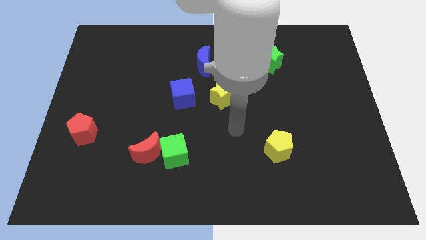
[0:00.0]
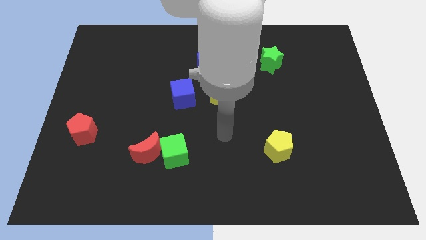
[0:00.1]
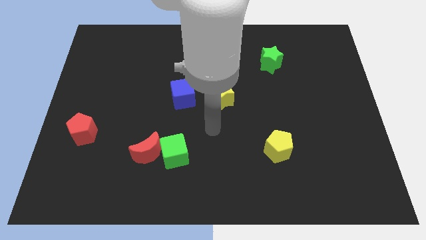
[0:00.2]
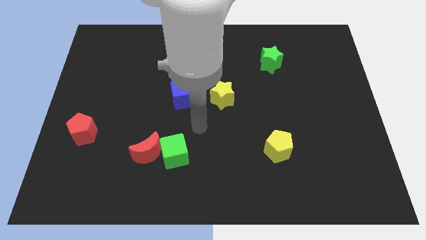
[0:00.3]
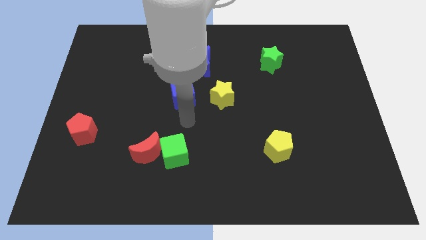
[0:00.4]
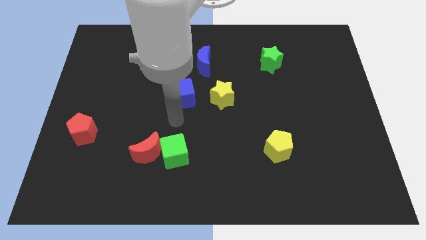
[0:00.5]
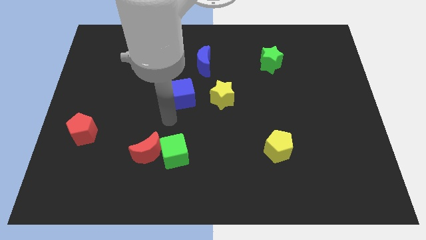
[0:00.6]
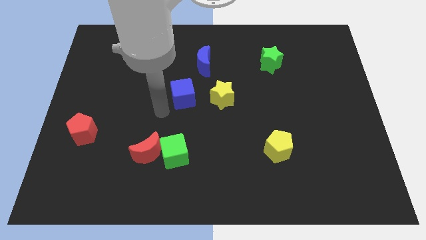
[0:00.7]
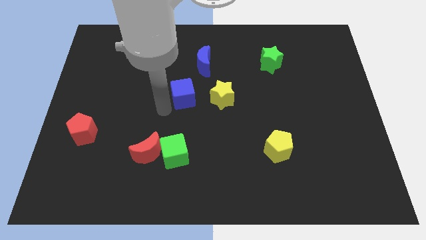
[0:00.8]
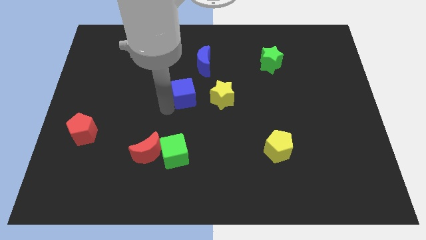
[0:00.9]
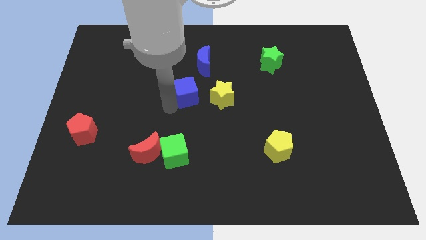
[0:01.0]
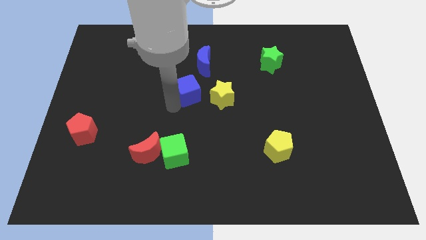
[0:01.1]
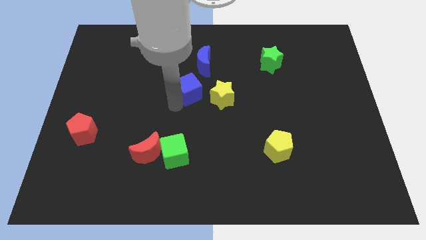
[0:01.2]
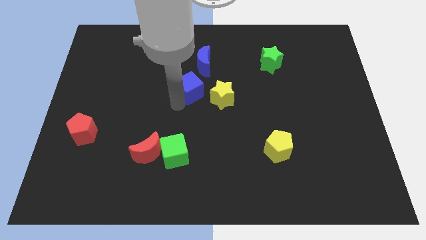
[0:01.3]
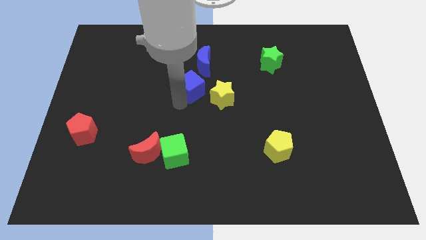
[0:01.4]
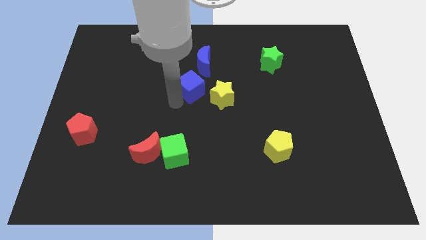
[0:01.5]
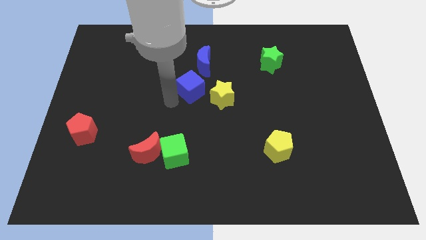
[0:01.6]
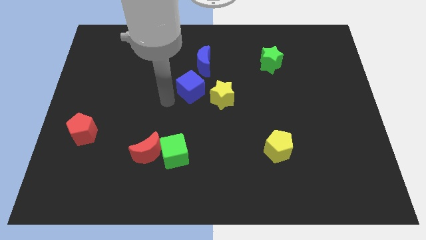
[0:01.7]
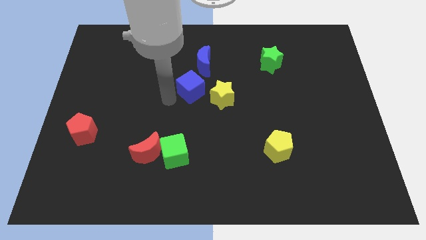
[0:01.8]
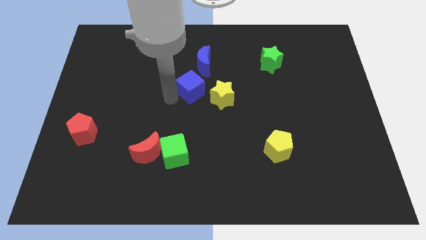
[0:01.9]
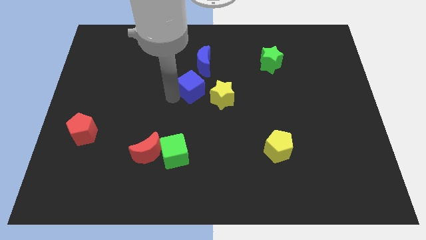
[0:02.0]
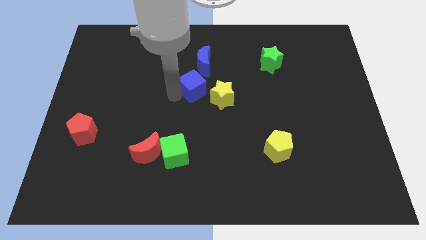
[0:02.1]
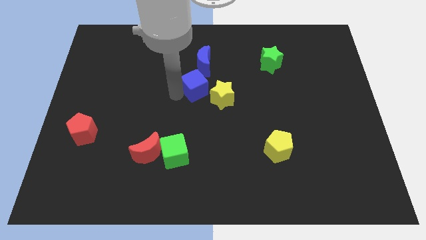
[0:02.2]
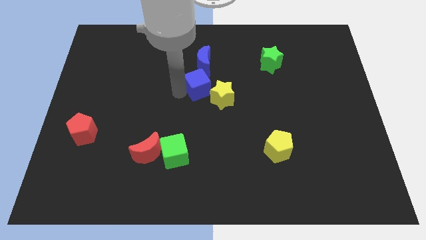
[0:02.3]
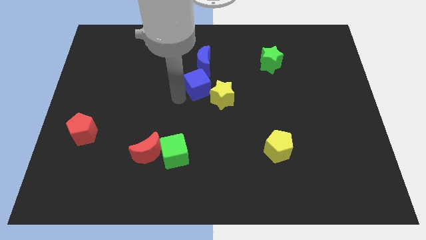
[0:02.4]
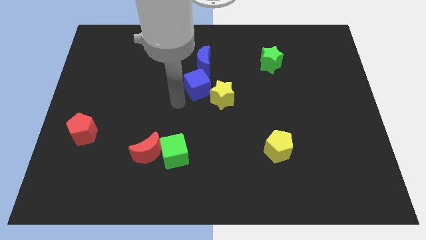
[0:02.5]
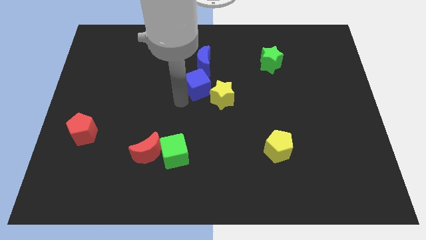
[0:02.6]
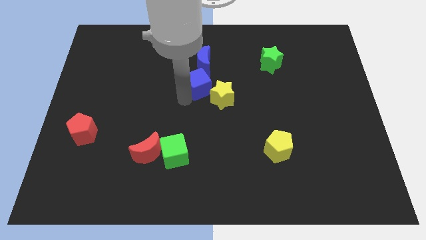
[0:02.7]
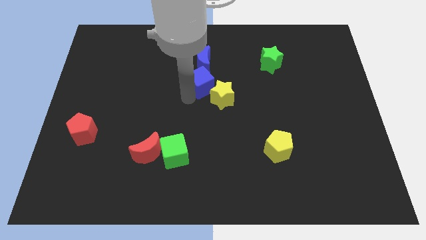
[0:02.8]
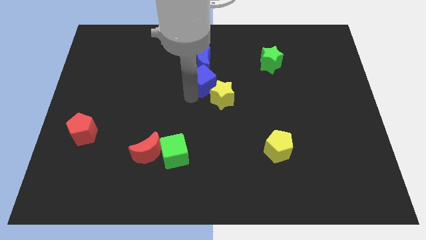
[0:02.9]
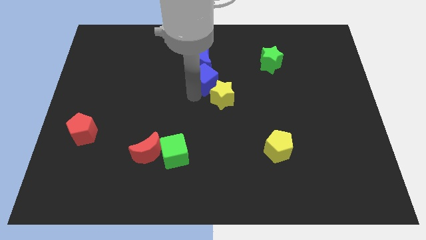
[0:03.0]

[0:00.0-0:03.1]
slide the blue cube a bit diagonally up and to the right

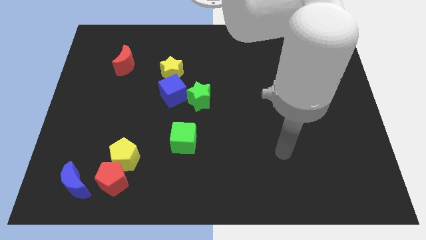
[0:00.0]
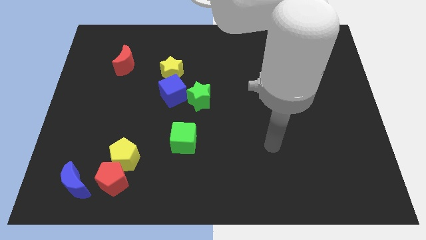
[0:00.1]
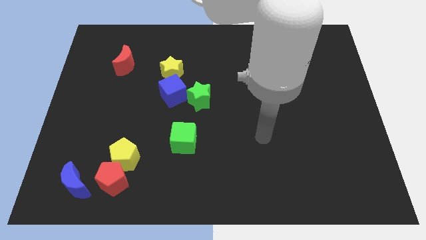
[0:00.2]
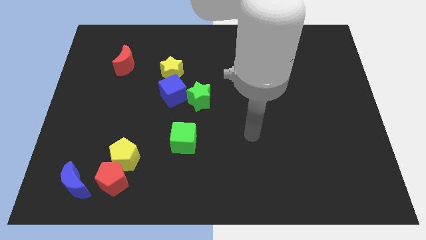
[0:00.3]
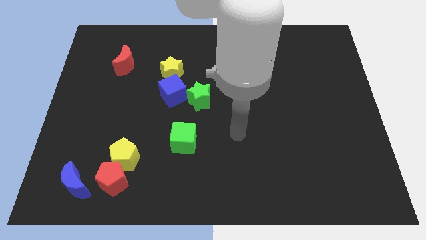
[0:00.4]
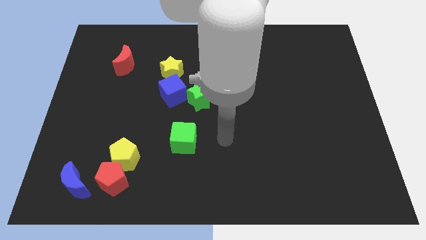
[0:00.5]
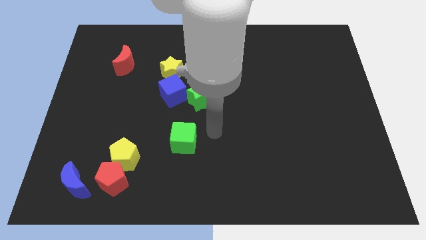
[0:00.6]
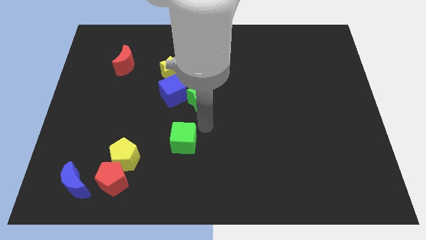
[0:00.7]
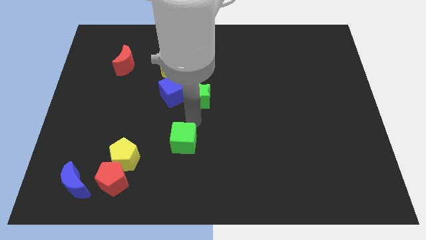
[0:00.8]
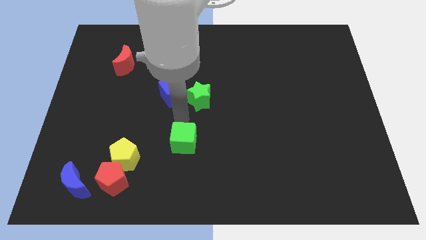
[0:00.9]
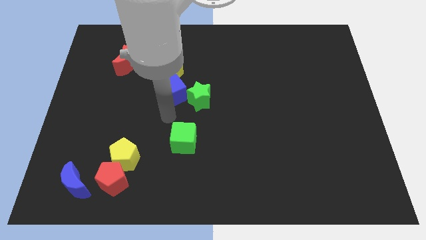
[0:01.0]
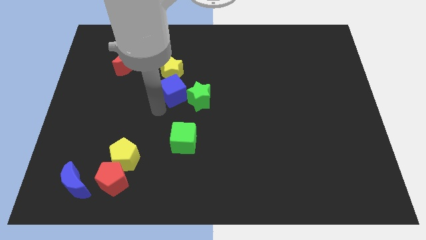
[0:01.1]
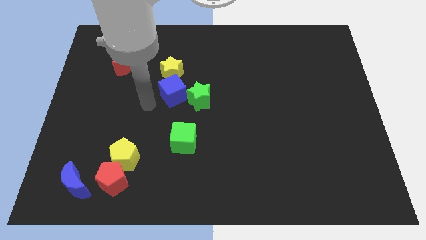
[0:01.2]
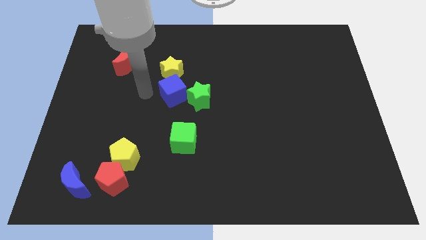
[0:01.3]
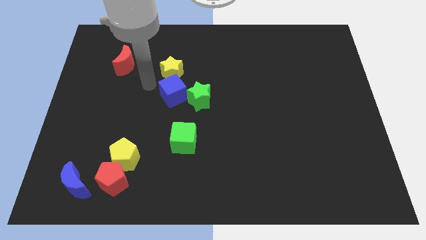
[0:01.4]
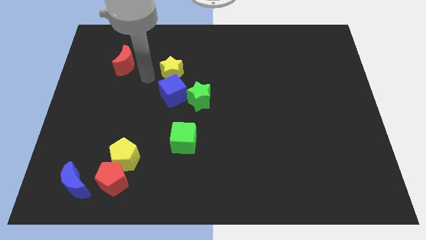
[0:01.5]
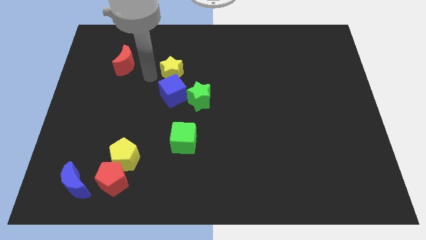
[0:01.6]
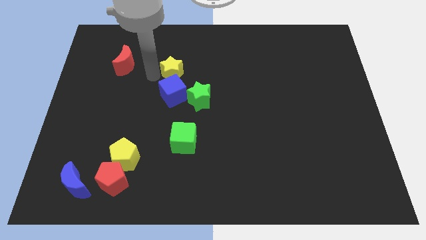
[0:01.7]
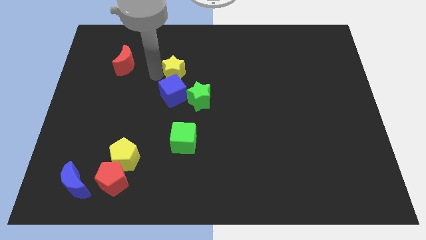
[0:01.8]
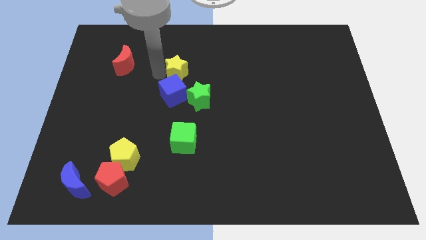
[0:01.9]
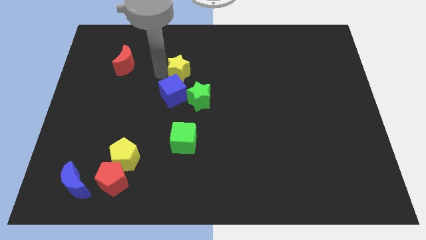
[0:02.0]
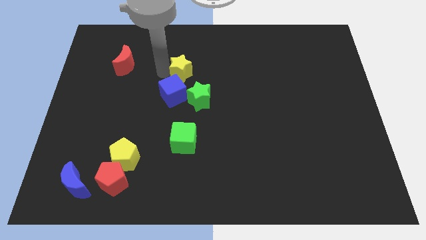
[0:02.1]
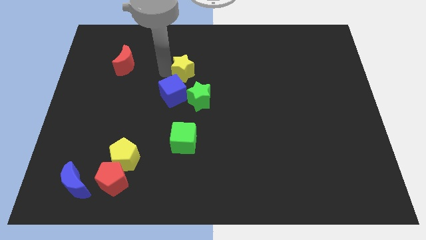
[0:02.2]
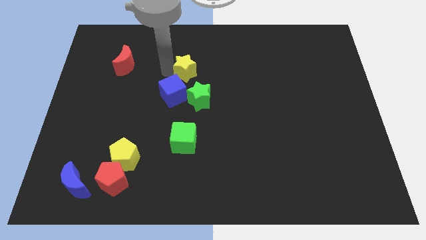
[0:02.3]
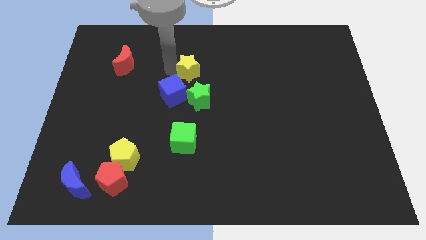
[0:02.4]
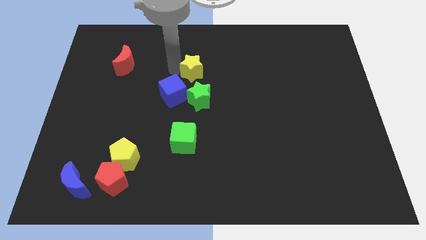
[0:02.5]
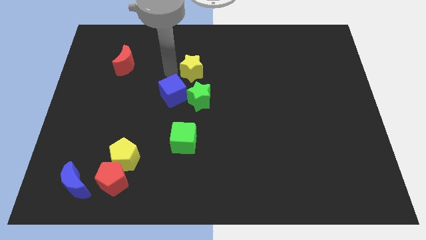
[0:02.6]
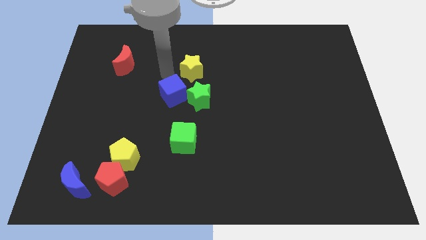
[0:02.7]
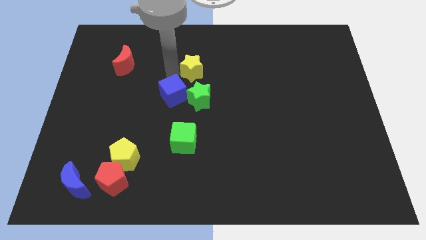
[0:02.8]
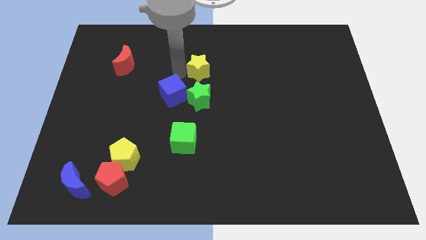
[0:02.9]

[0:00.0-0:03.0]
push the yellow star to the right a little

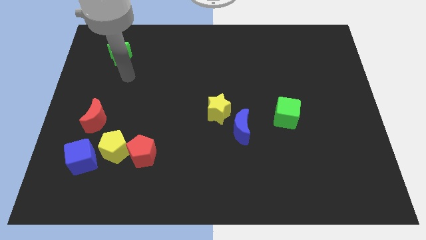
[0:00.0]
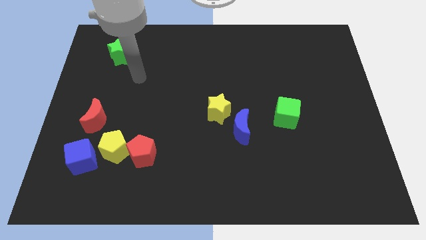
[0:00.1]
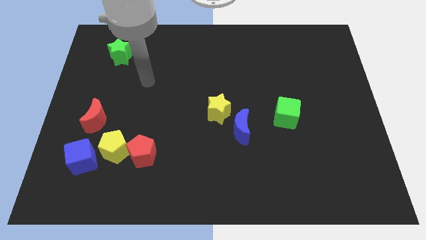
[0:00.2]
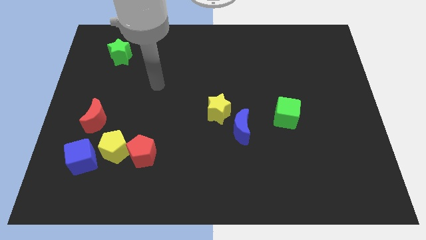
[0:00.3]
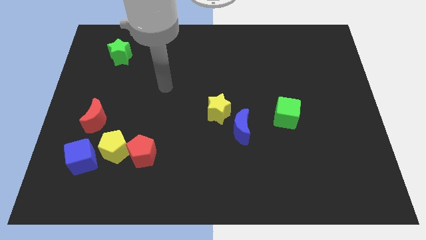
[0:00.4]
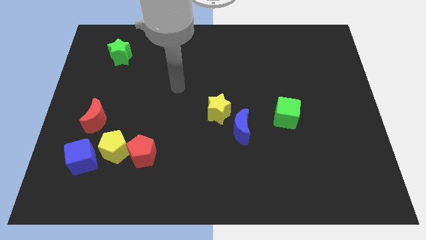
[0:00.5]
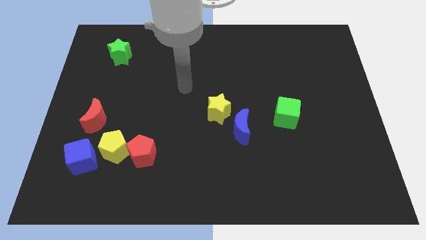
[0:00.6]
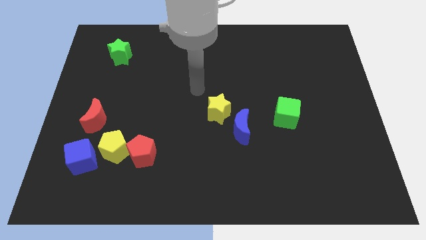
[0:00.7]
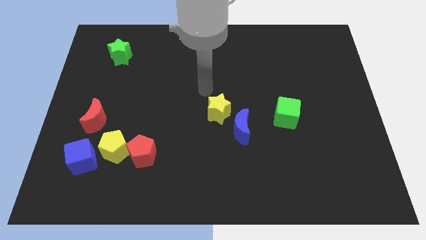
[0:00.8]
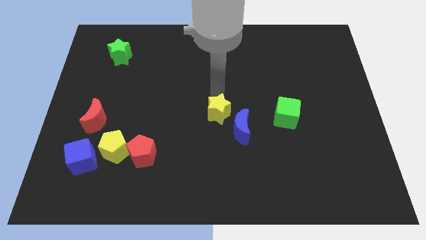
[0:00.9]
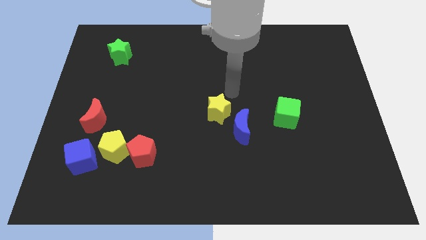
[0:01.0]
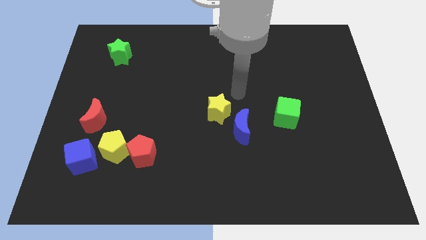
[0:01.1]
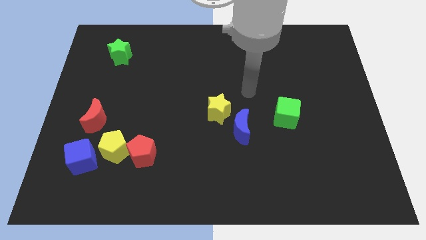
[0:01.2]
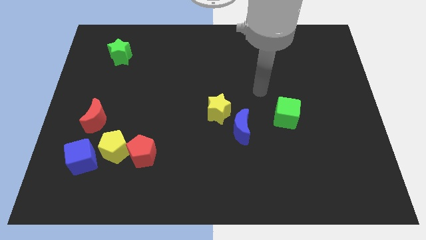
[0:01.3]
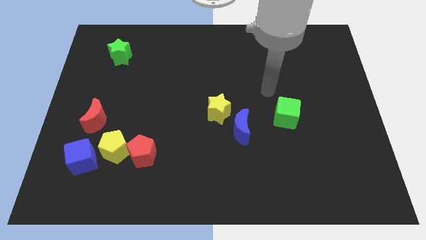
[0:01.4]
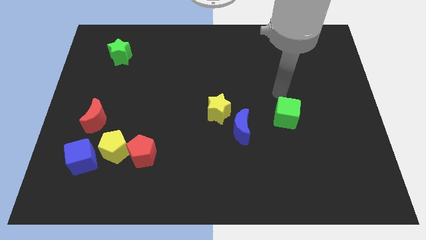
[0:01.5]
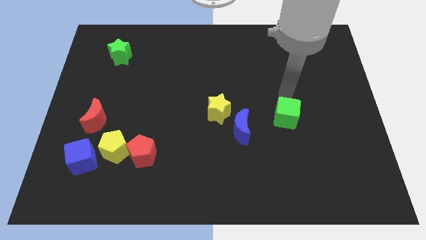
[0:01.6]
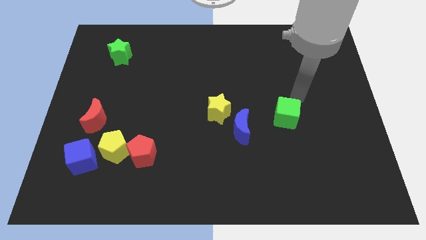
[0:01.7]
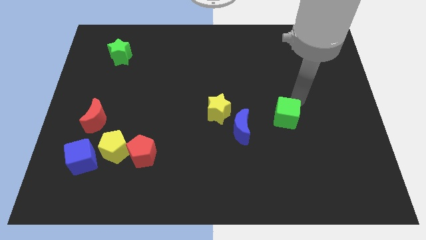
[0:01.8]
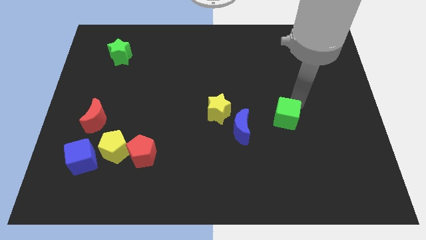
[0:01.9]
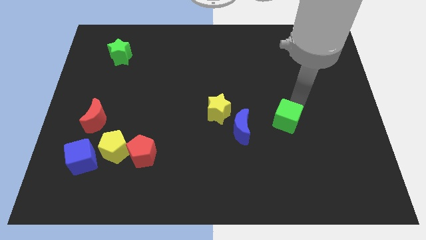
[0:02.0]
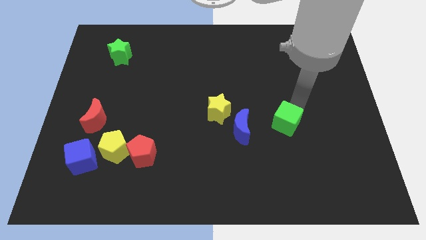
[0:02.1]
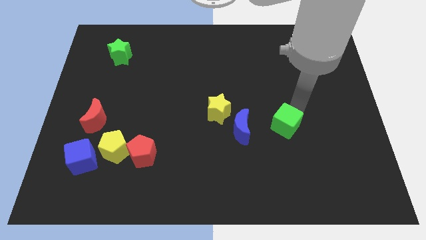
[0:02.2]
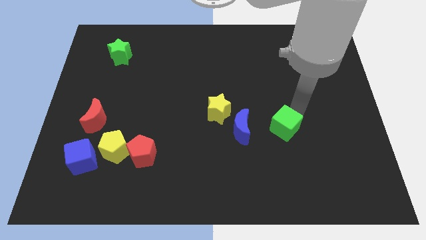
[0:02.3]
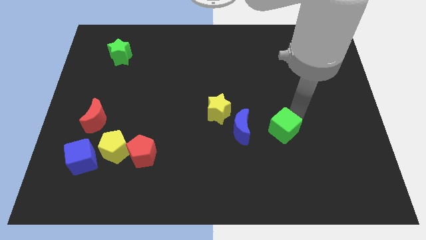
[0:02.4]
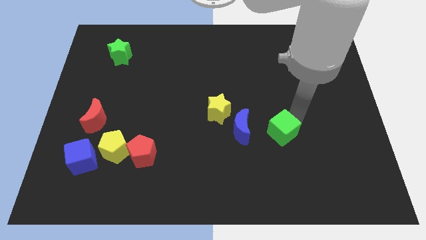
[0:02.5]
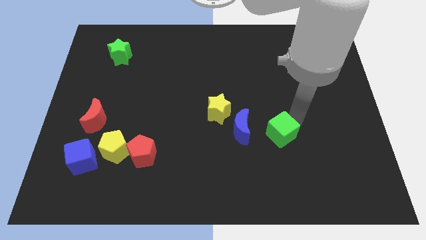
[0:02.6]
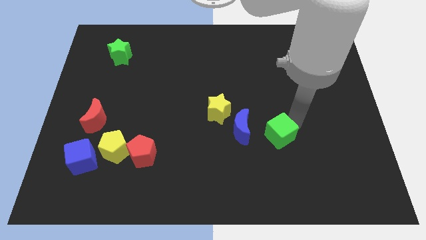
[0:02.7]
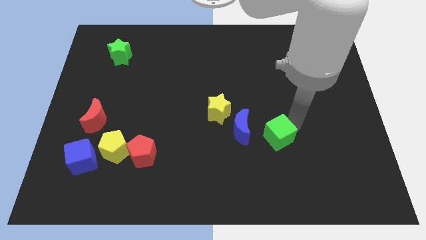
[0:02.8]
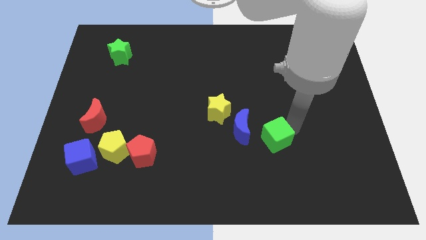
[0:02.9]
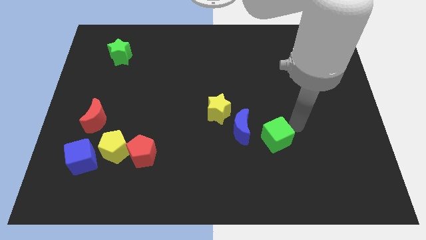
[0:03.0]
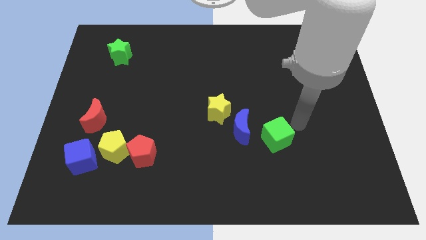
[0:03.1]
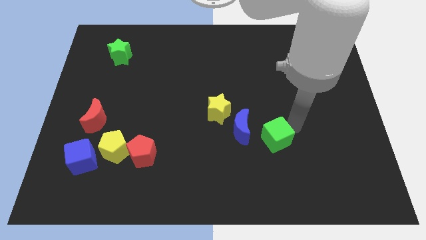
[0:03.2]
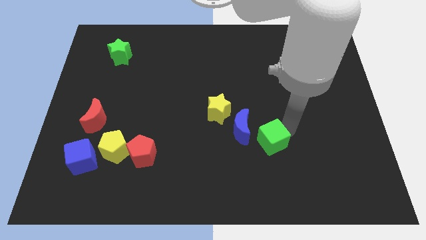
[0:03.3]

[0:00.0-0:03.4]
move the green cube a bit downwards and left
